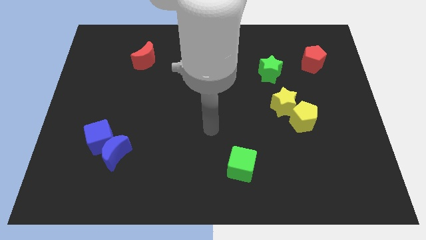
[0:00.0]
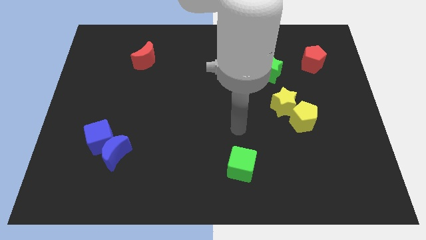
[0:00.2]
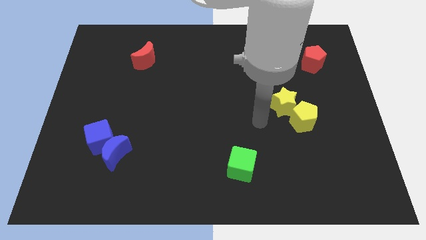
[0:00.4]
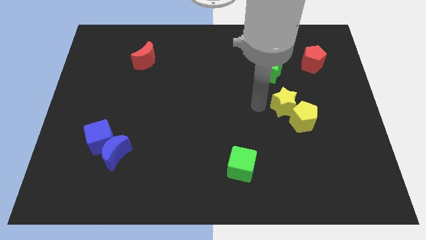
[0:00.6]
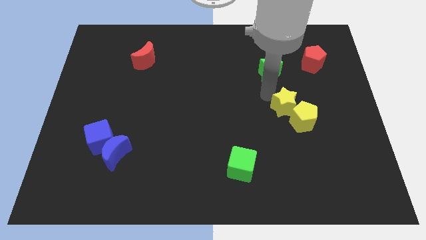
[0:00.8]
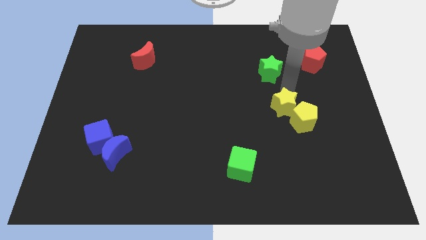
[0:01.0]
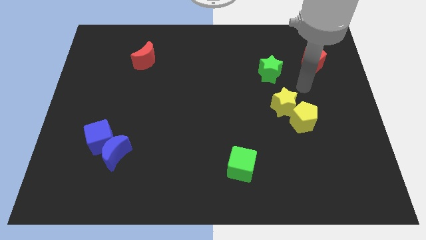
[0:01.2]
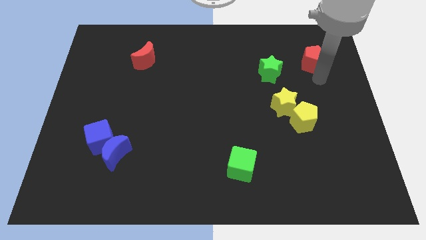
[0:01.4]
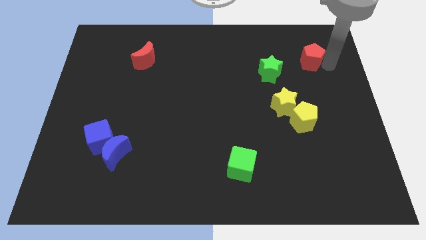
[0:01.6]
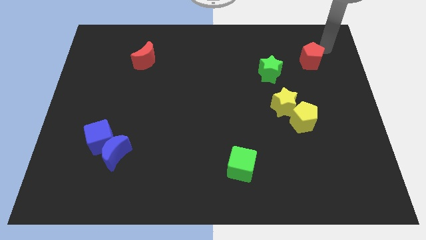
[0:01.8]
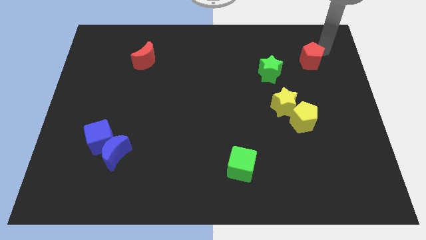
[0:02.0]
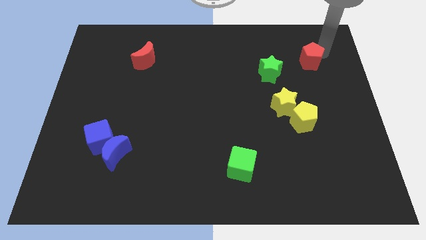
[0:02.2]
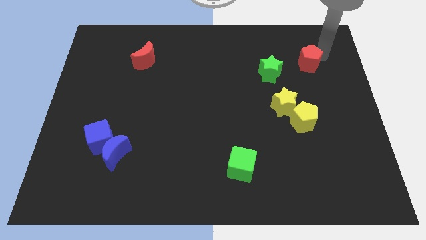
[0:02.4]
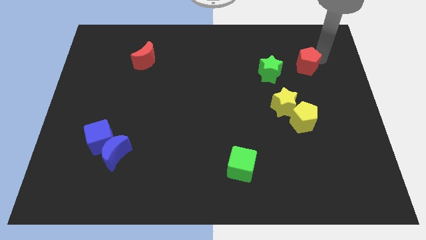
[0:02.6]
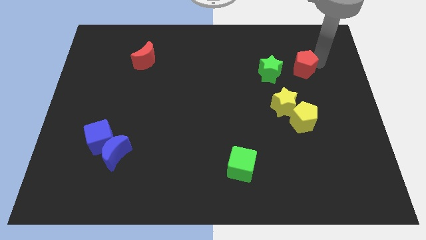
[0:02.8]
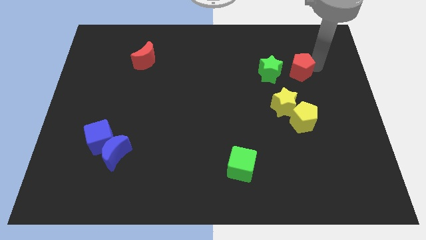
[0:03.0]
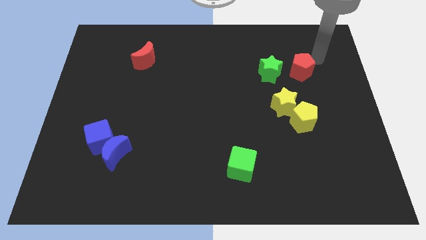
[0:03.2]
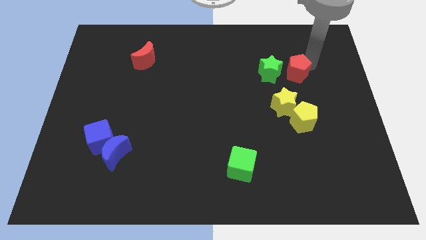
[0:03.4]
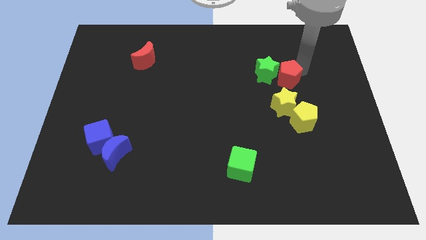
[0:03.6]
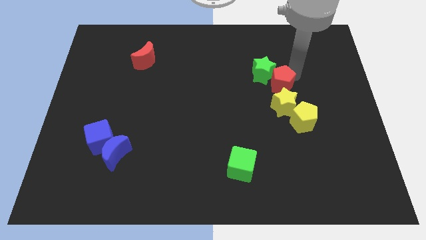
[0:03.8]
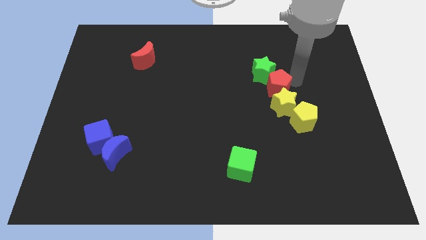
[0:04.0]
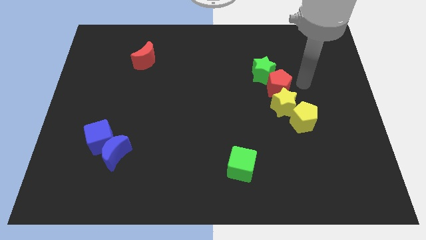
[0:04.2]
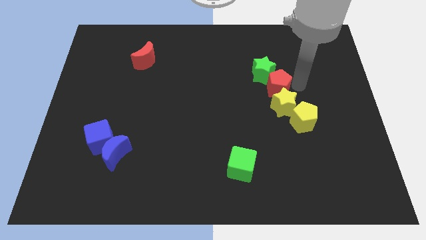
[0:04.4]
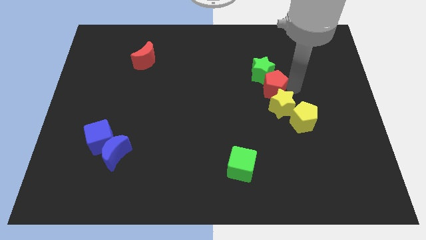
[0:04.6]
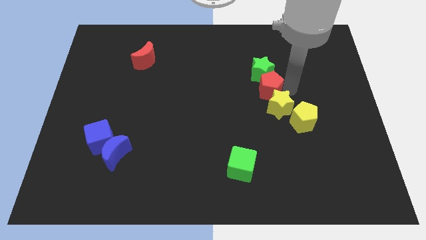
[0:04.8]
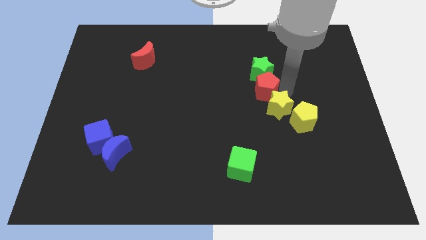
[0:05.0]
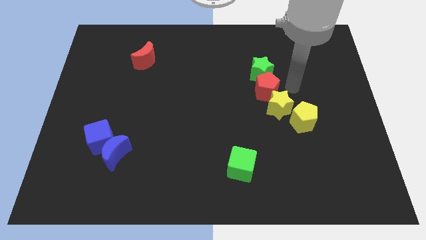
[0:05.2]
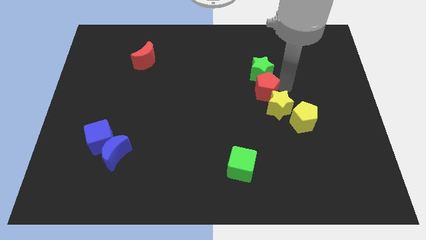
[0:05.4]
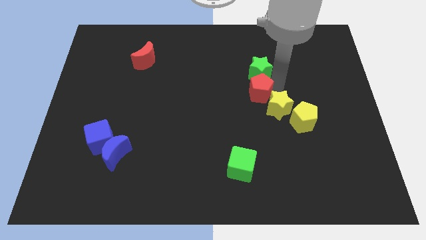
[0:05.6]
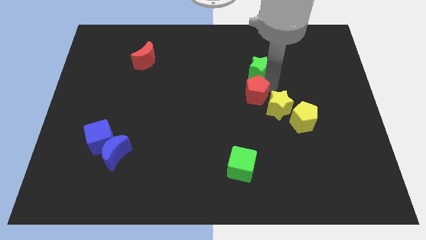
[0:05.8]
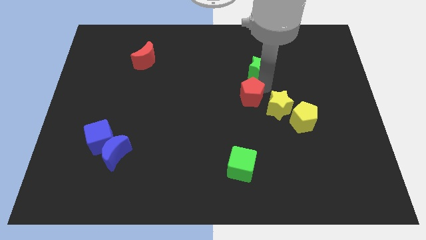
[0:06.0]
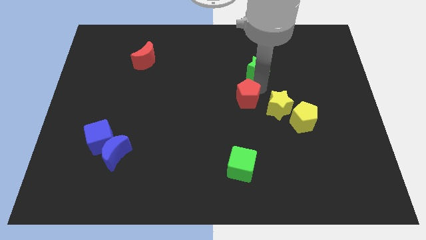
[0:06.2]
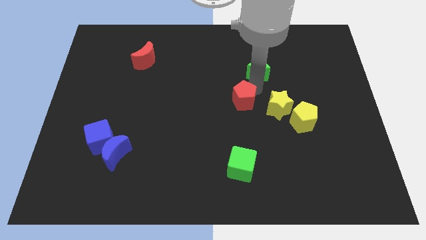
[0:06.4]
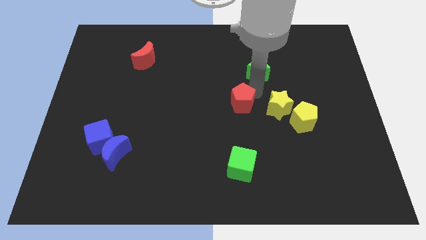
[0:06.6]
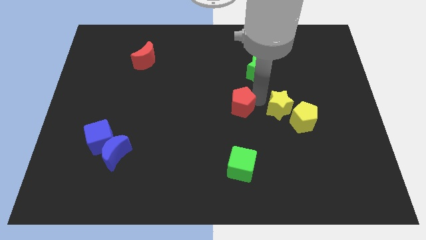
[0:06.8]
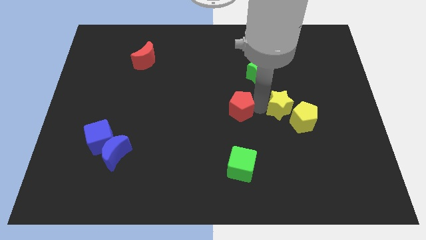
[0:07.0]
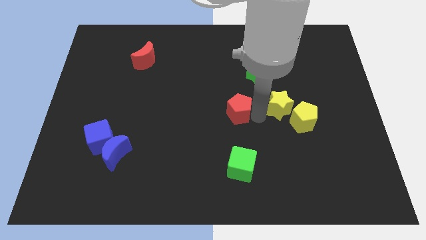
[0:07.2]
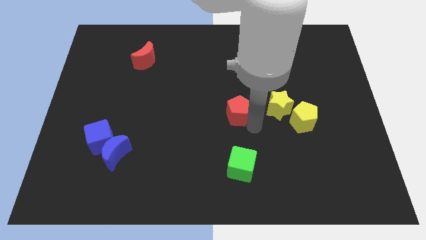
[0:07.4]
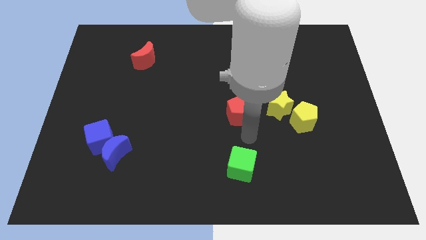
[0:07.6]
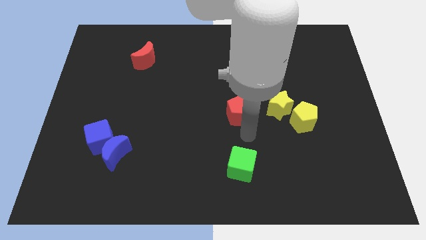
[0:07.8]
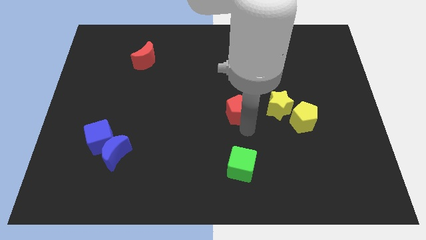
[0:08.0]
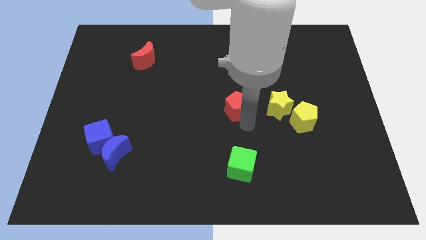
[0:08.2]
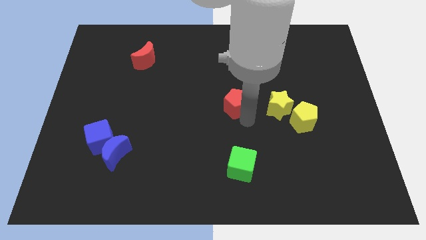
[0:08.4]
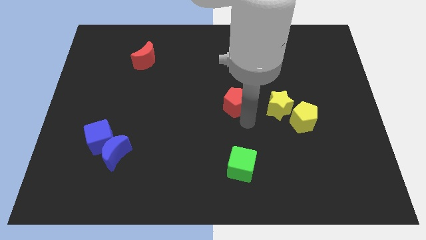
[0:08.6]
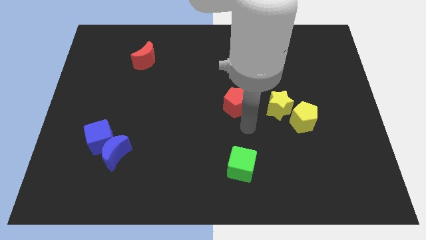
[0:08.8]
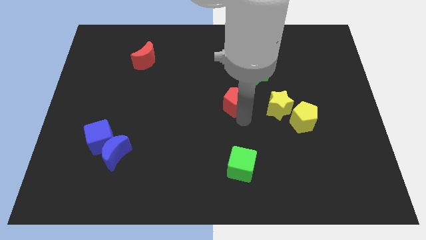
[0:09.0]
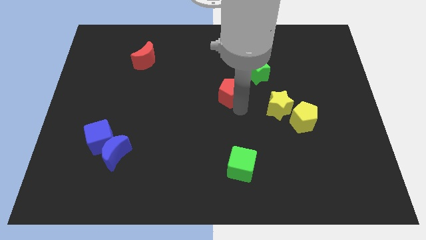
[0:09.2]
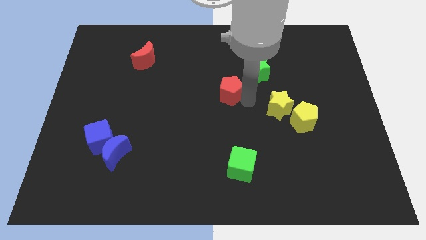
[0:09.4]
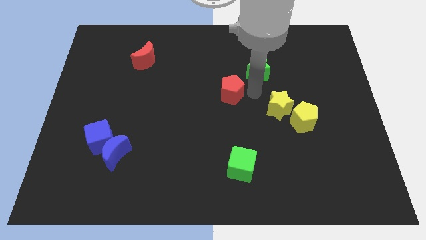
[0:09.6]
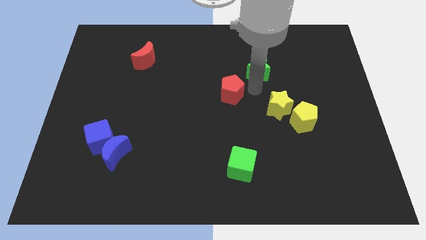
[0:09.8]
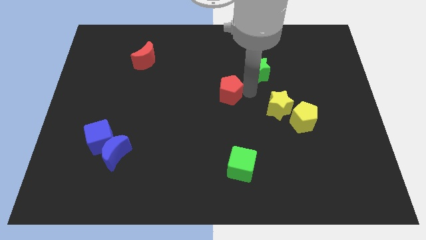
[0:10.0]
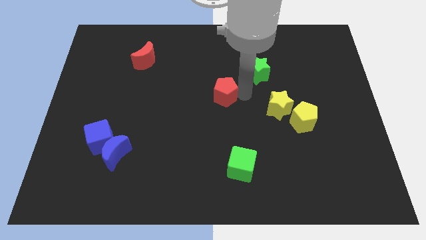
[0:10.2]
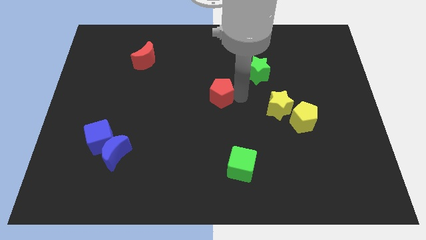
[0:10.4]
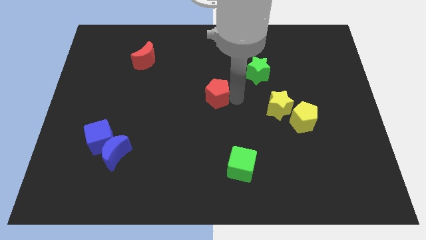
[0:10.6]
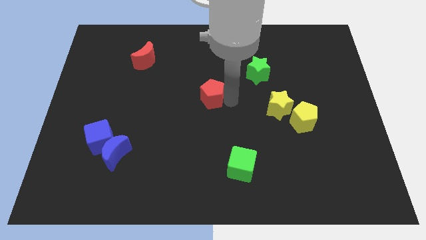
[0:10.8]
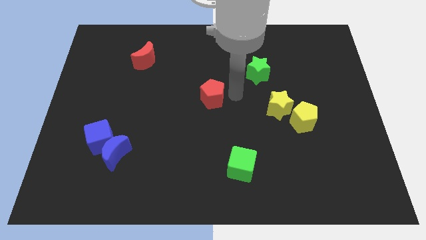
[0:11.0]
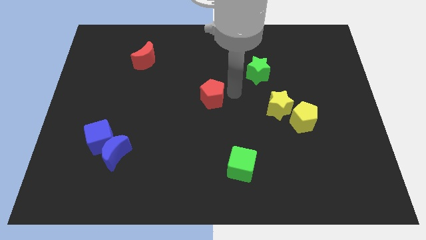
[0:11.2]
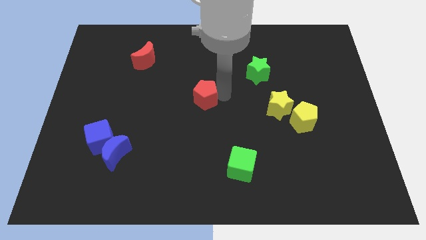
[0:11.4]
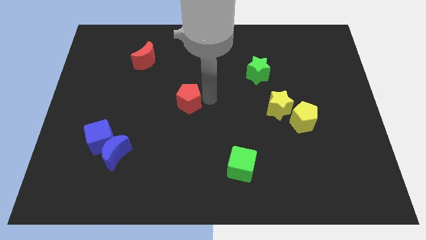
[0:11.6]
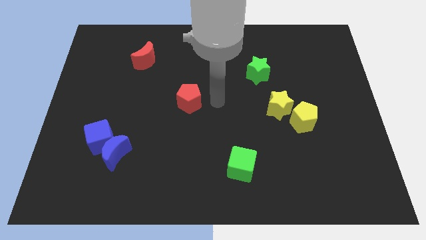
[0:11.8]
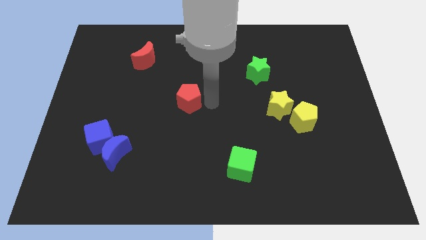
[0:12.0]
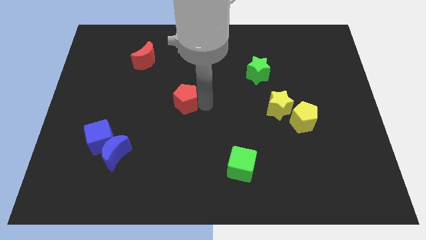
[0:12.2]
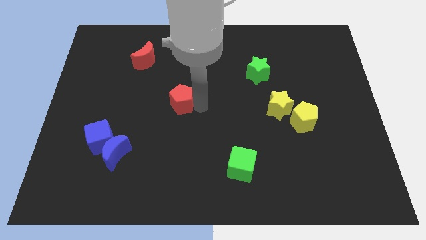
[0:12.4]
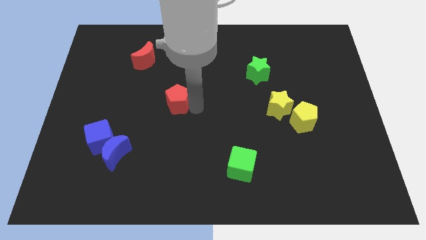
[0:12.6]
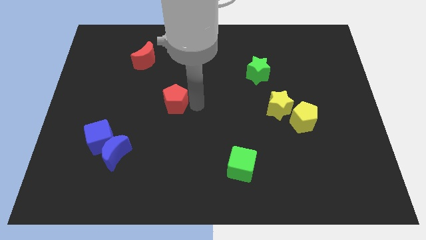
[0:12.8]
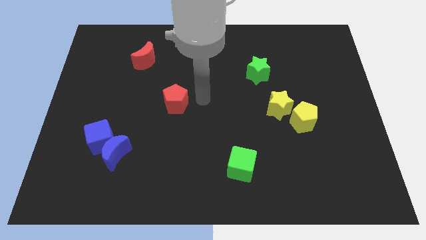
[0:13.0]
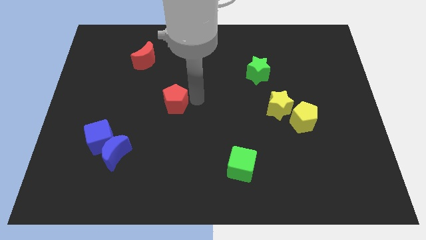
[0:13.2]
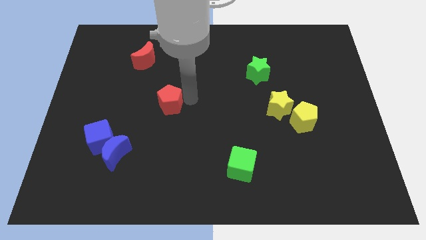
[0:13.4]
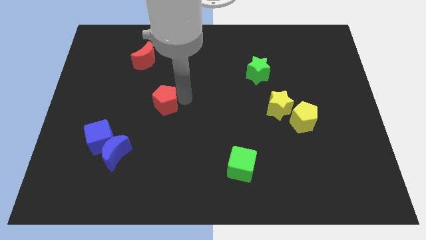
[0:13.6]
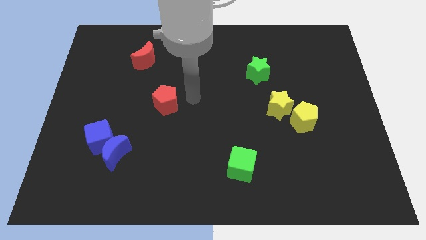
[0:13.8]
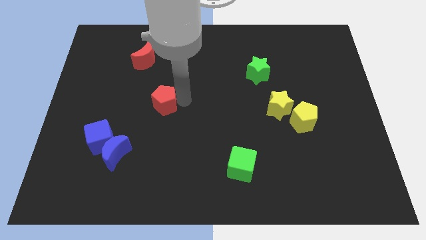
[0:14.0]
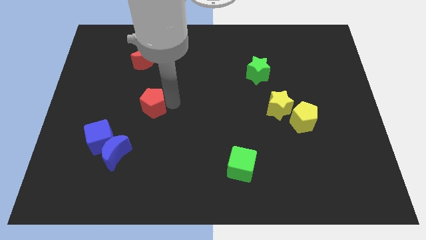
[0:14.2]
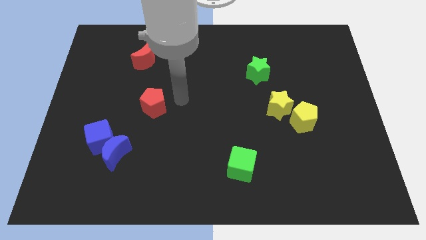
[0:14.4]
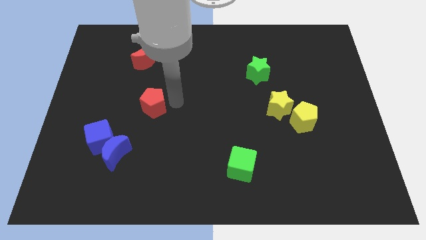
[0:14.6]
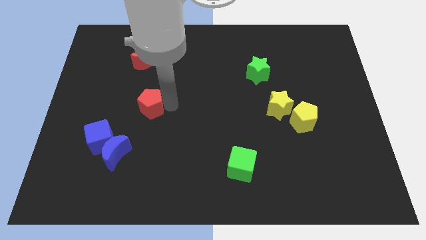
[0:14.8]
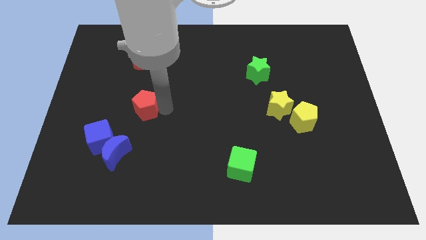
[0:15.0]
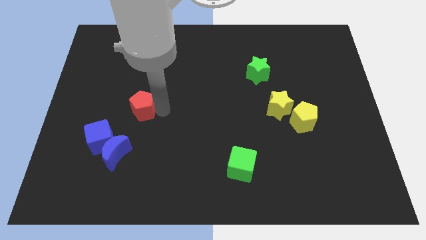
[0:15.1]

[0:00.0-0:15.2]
move the red pentagon above the blue moon
